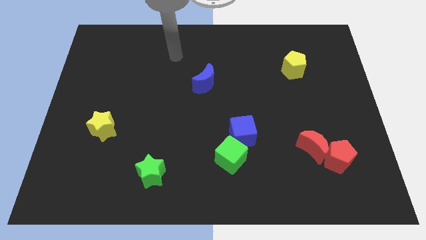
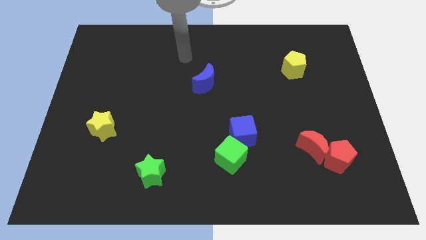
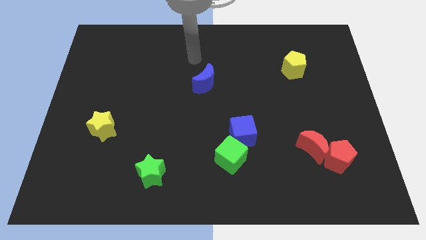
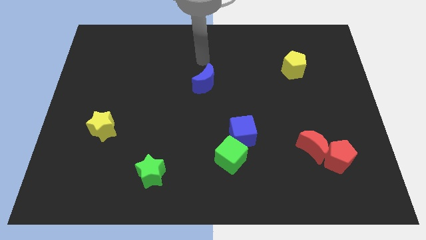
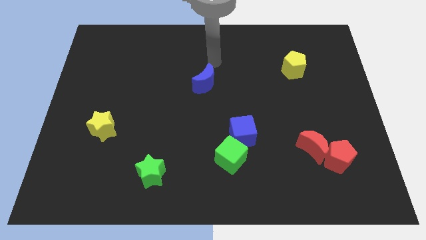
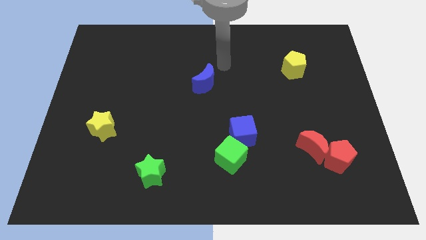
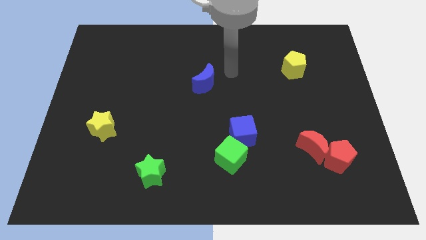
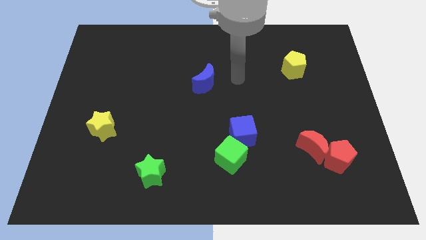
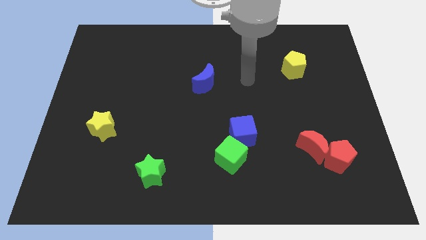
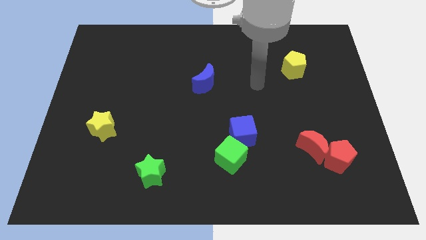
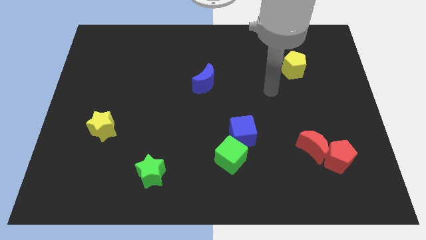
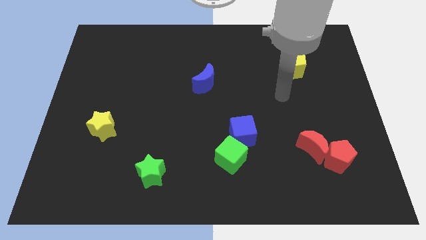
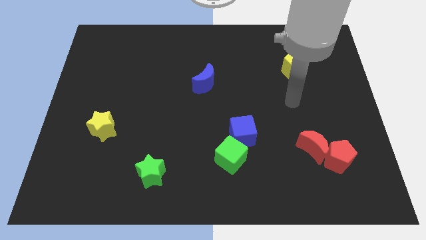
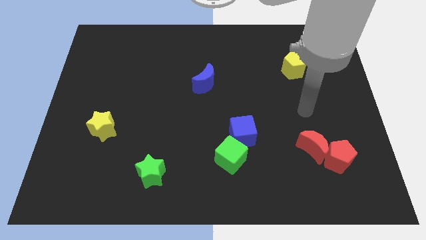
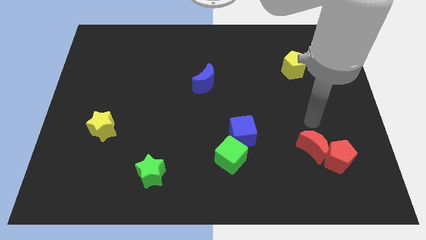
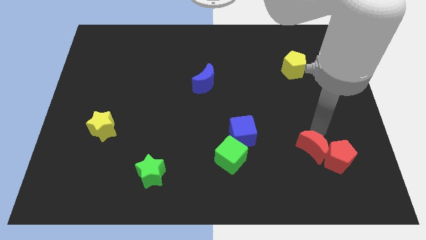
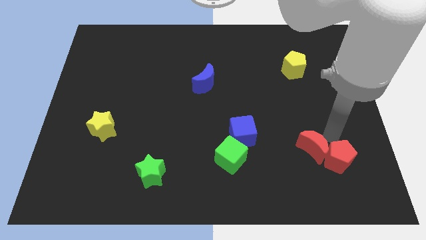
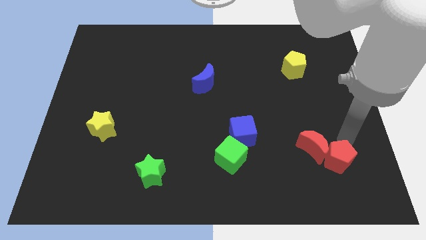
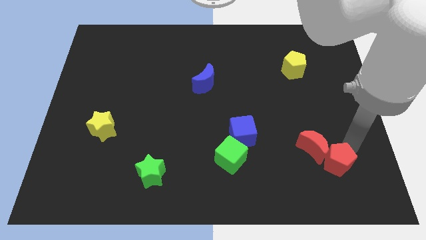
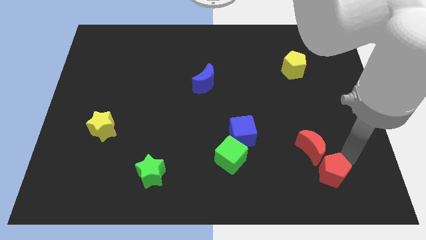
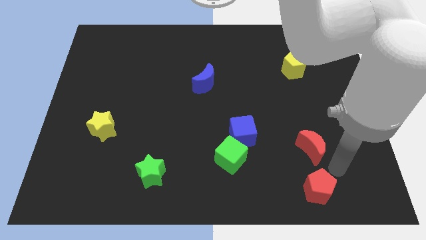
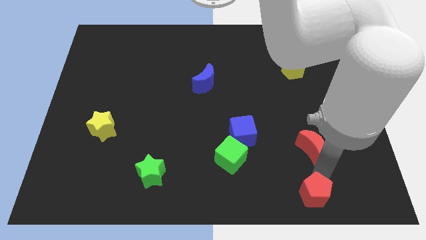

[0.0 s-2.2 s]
pull the red moon apart from the red pentagon

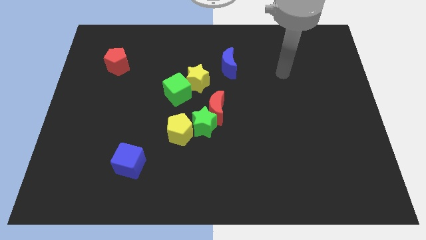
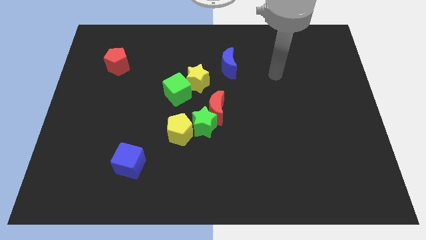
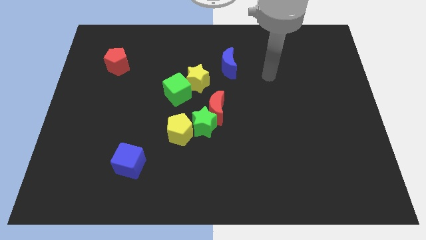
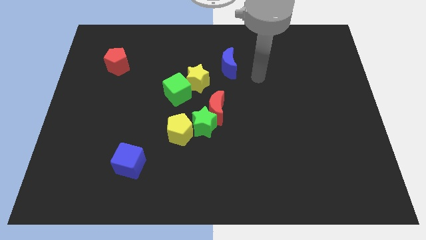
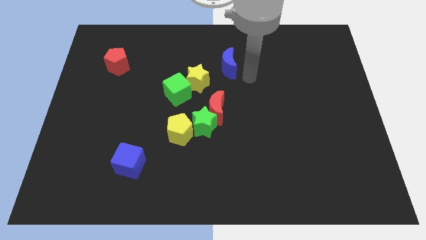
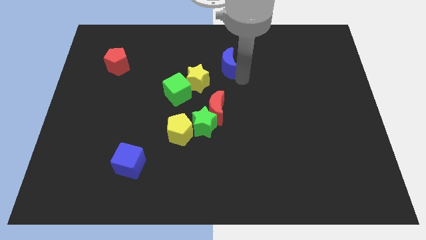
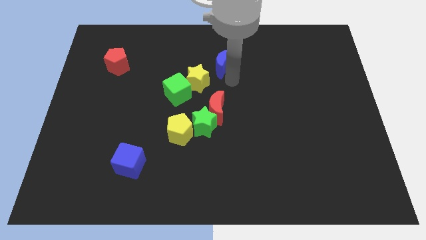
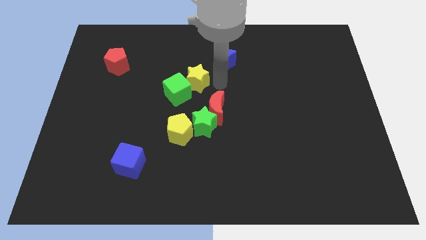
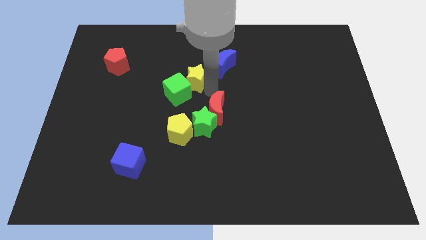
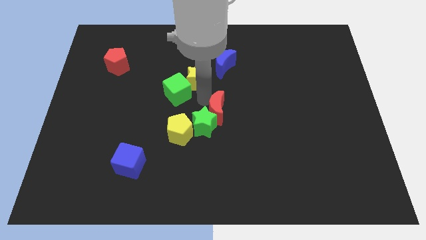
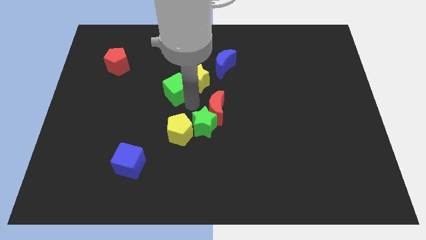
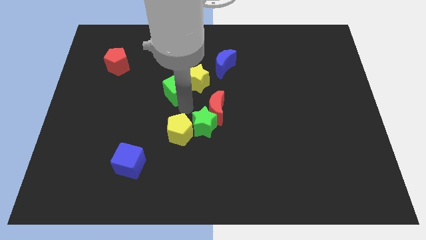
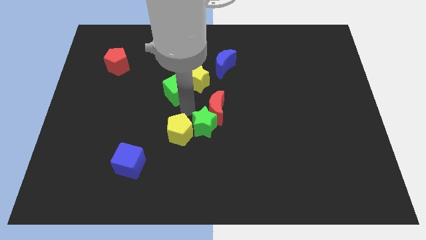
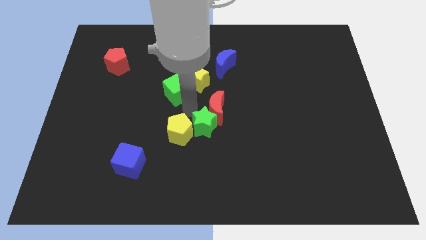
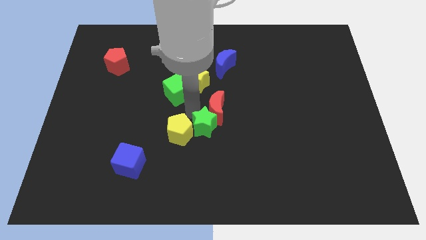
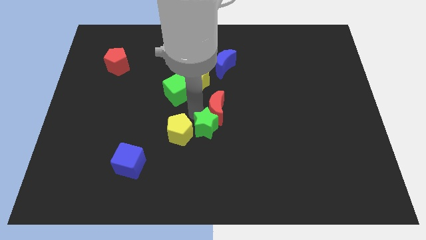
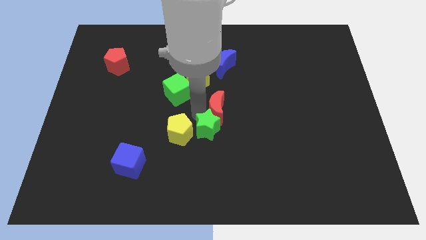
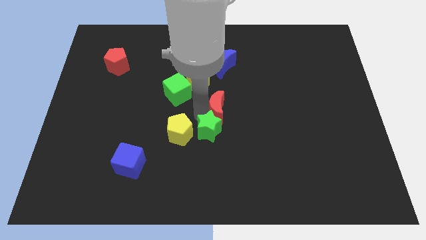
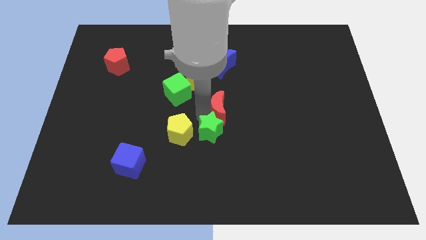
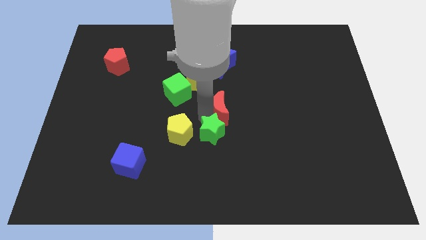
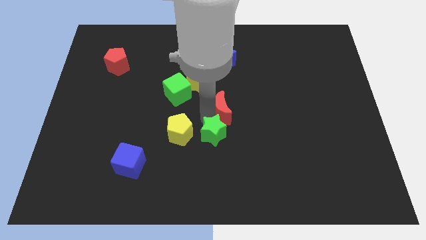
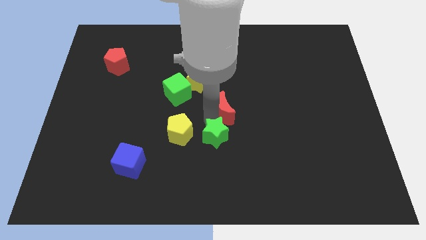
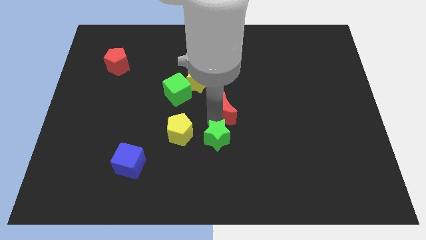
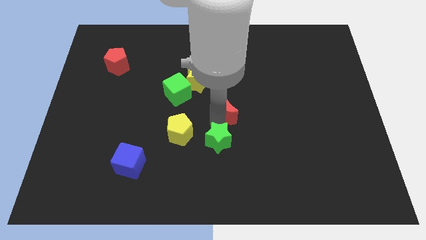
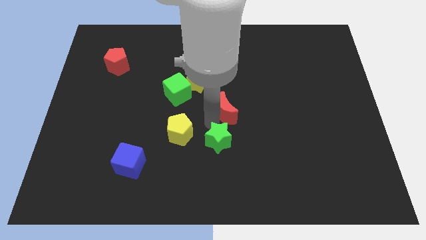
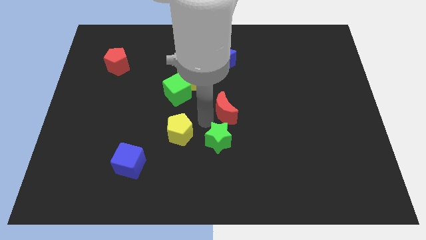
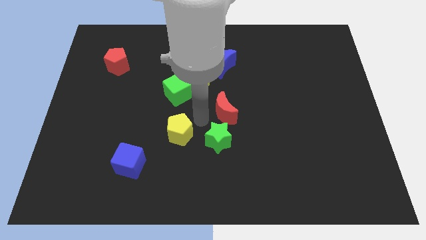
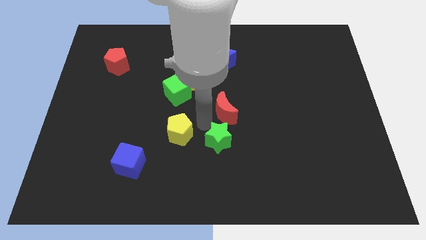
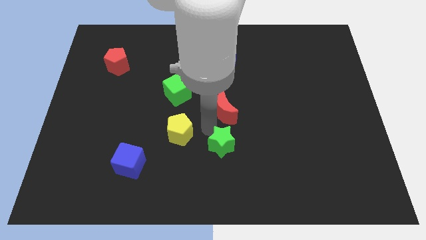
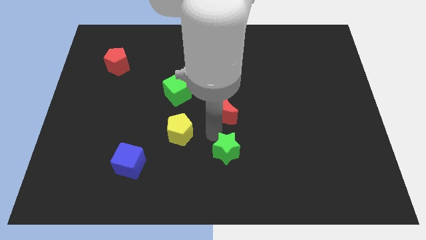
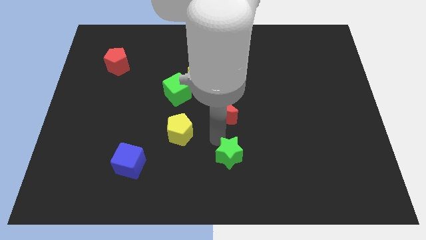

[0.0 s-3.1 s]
move the green star away from the red moon and yellow pentagon

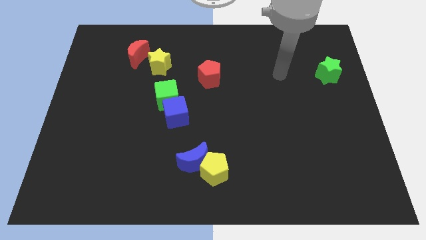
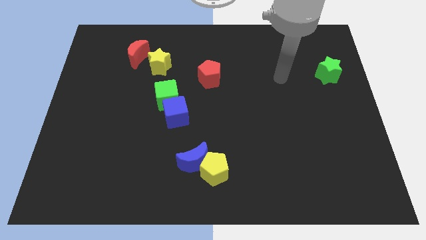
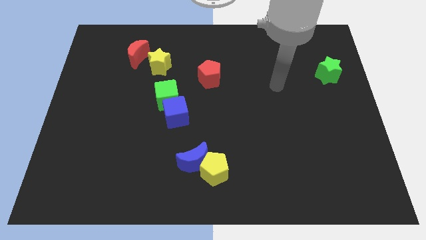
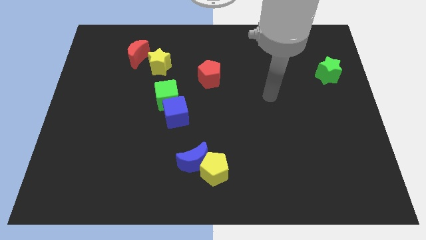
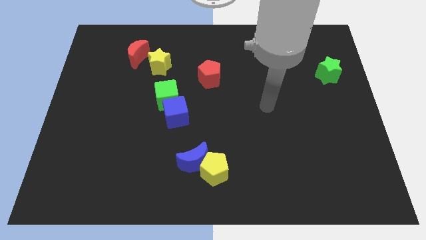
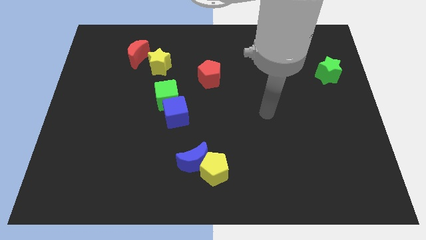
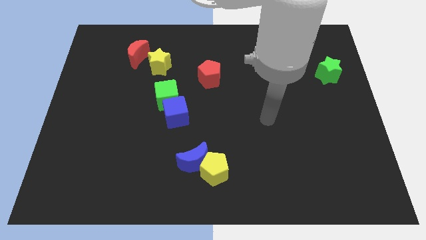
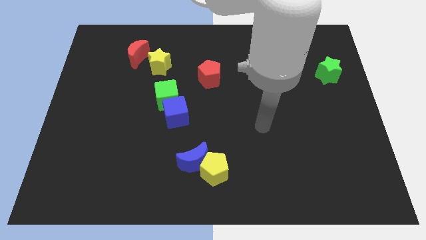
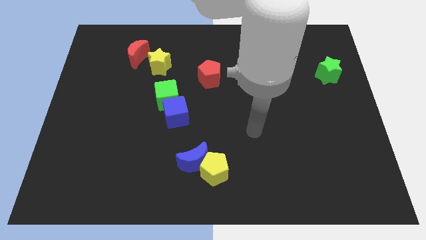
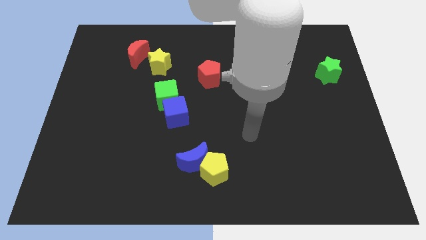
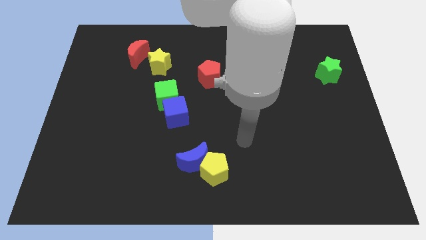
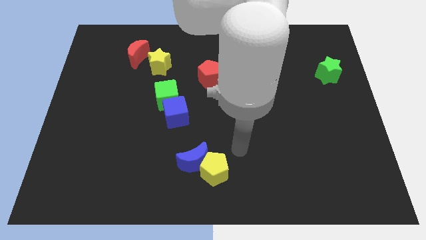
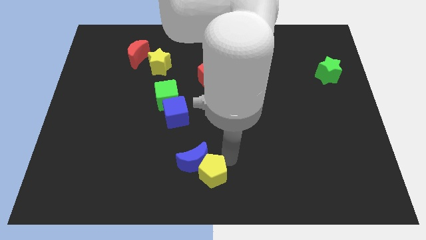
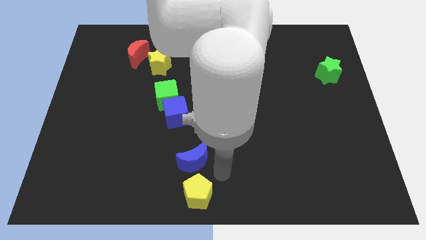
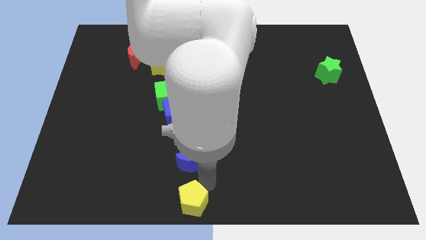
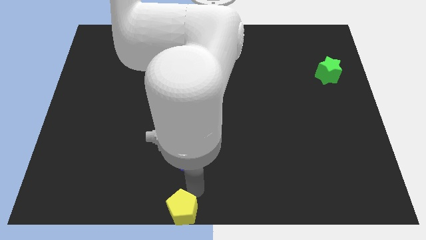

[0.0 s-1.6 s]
move the blue moon away from the yellow pentagon

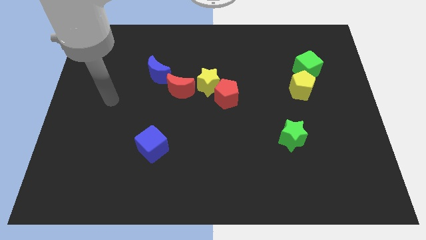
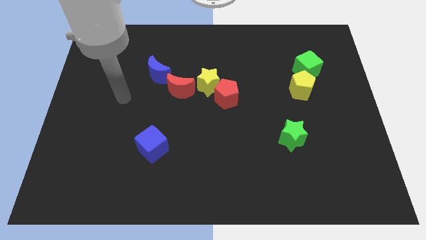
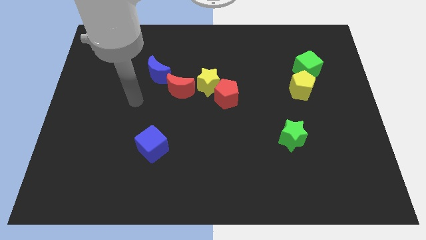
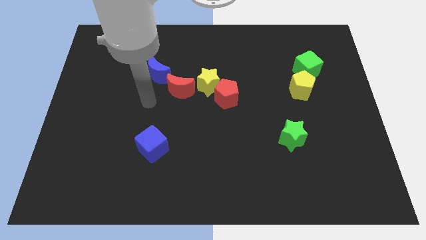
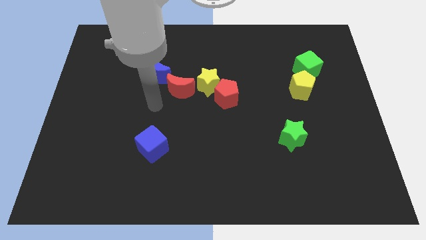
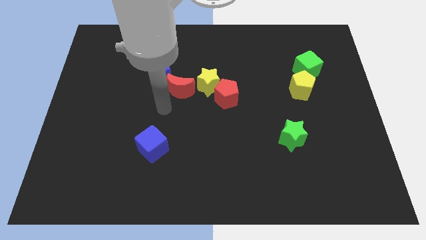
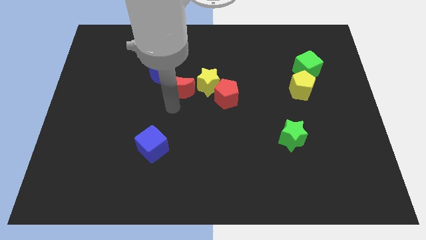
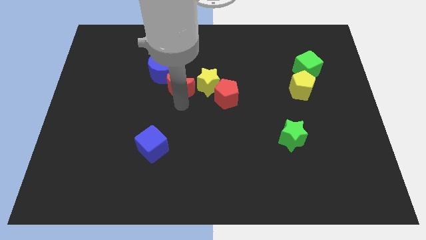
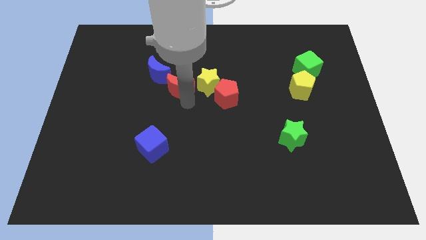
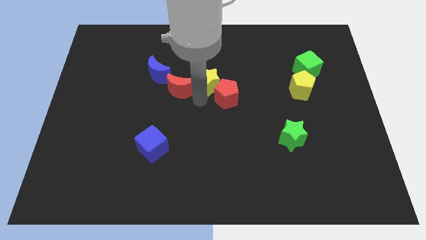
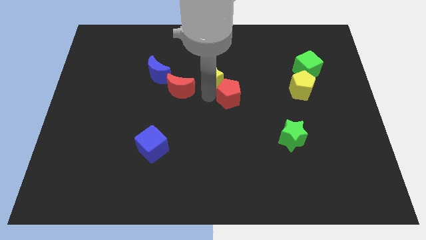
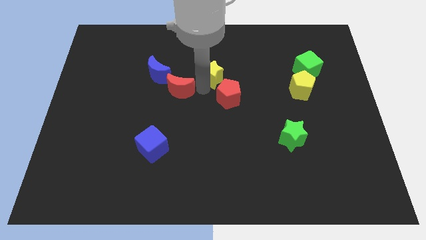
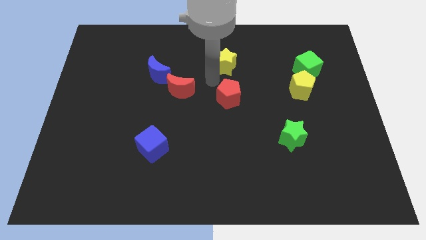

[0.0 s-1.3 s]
separate the red pentagon from the yellow star

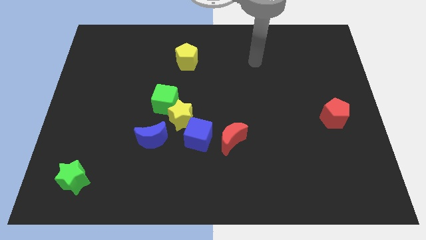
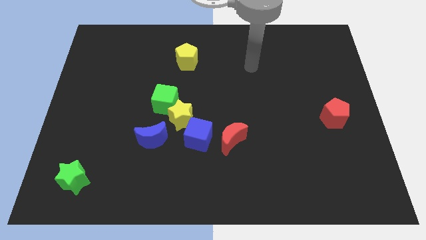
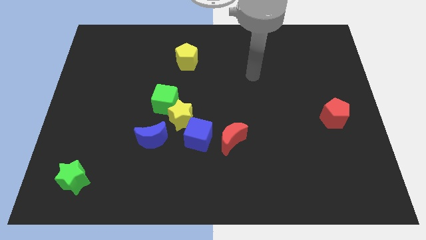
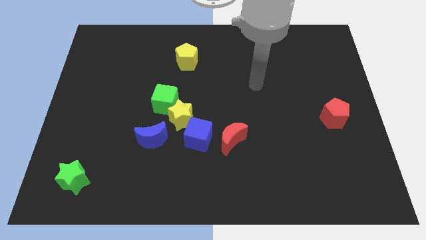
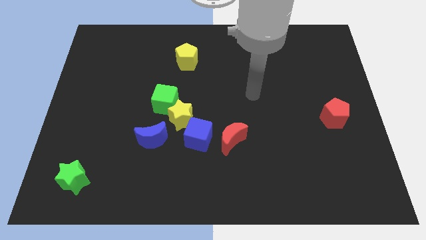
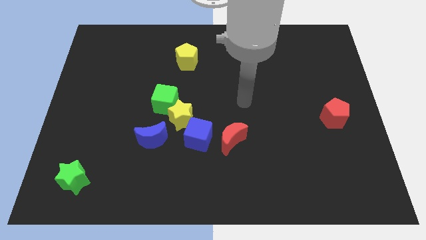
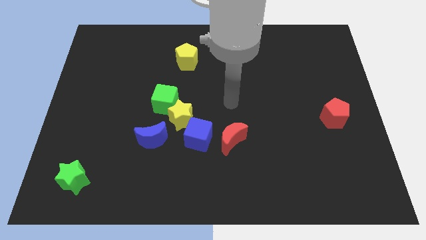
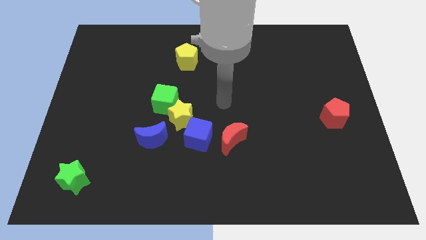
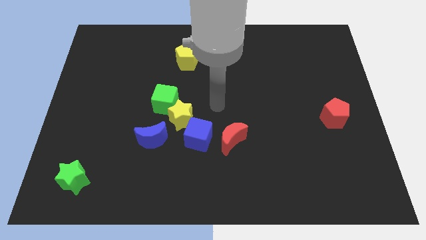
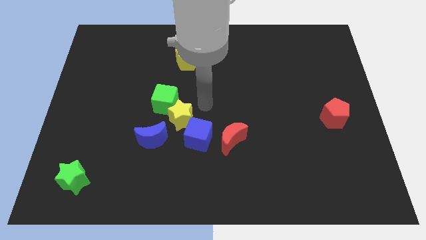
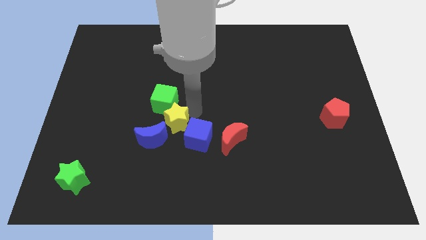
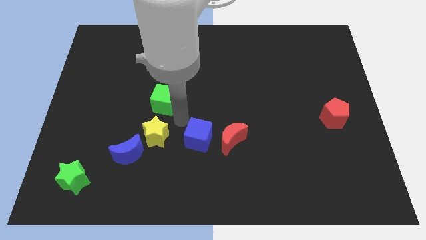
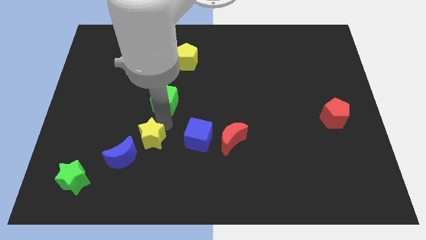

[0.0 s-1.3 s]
move the green cube away from the yellow star
